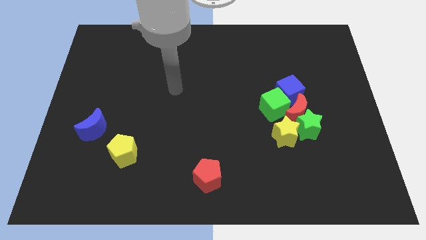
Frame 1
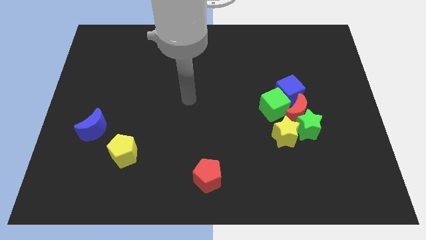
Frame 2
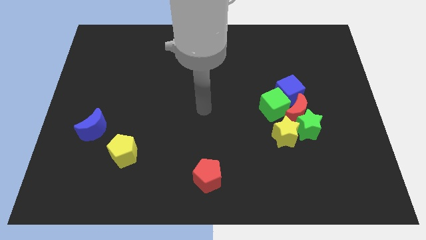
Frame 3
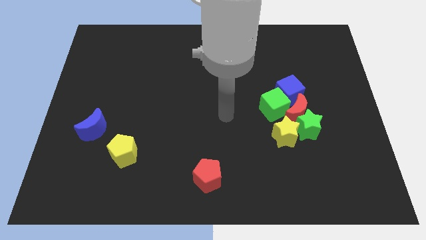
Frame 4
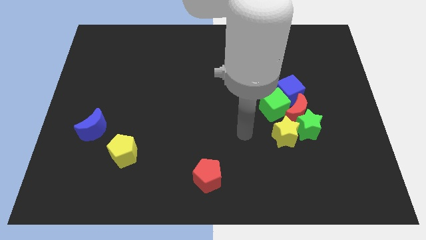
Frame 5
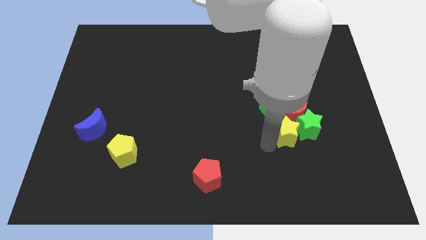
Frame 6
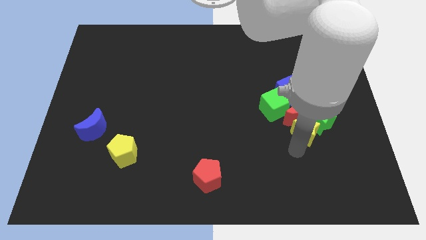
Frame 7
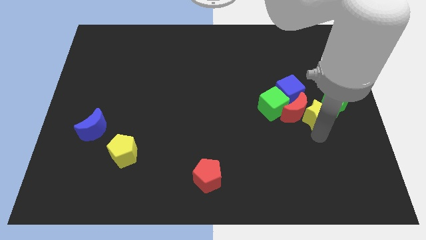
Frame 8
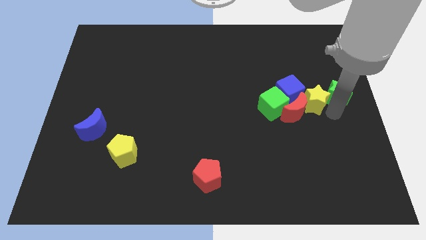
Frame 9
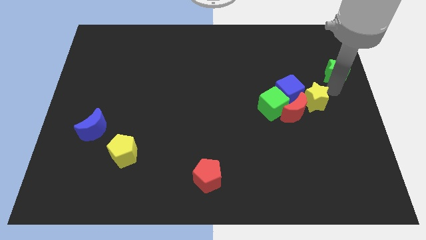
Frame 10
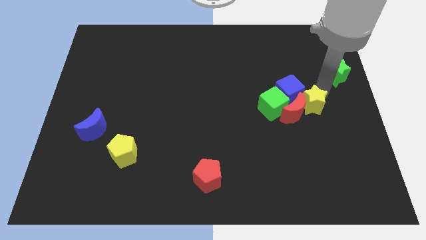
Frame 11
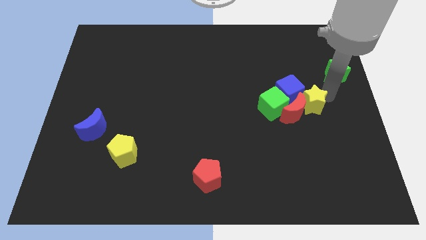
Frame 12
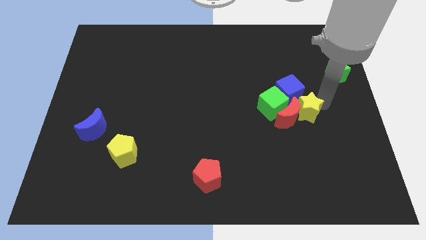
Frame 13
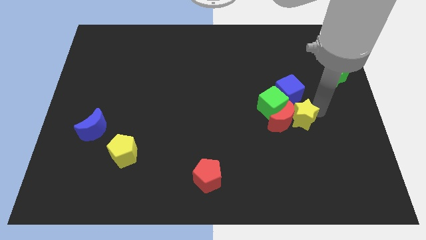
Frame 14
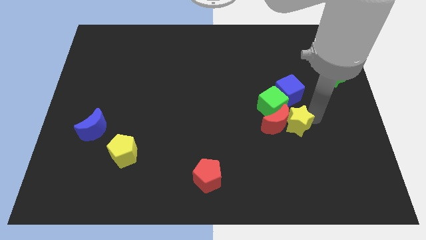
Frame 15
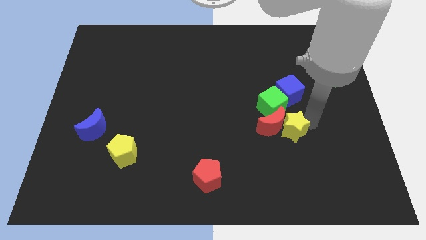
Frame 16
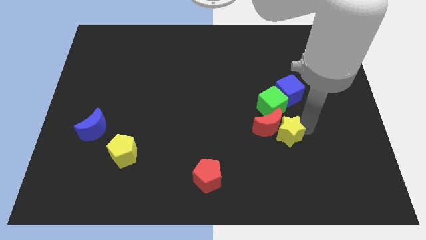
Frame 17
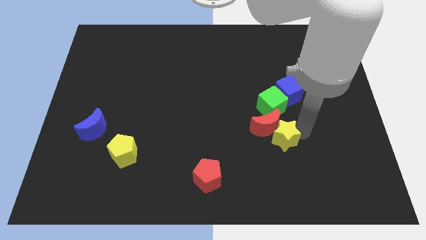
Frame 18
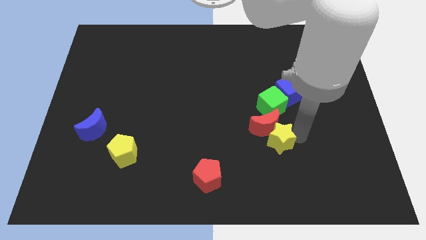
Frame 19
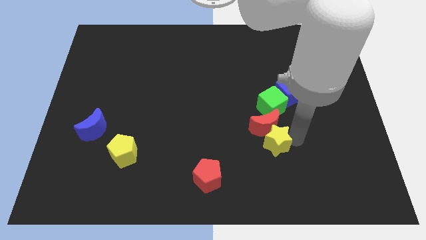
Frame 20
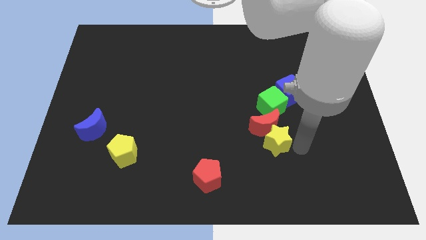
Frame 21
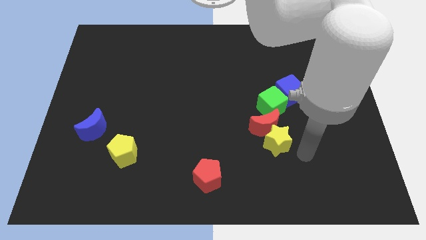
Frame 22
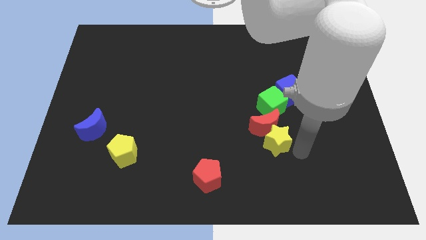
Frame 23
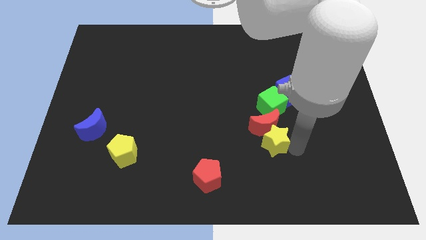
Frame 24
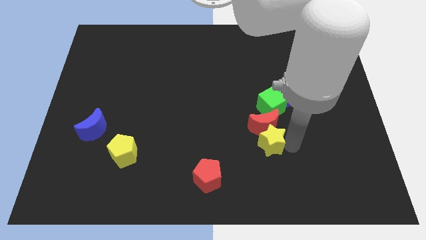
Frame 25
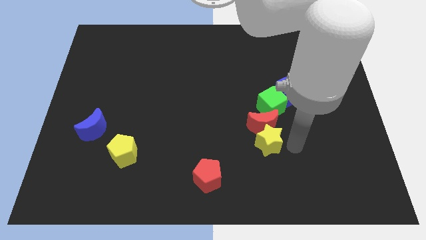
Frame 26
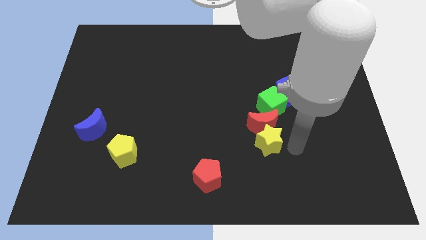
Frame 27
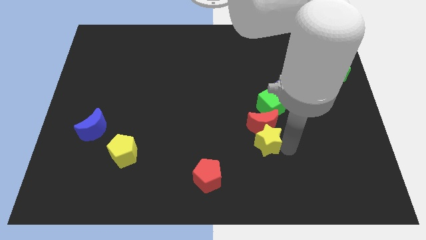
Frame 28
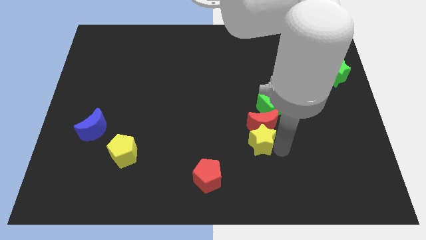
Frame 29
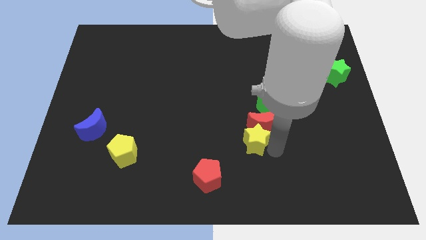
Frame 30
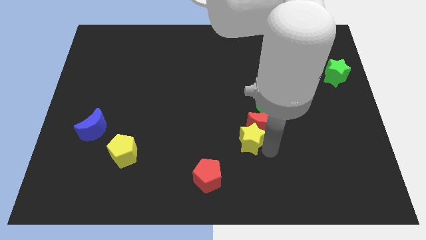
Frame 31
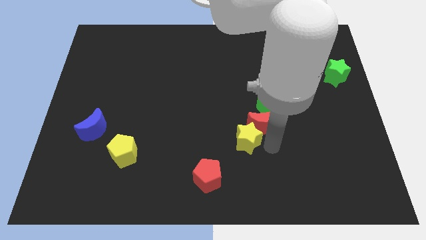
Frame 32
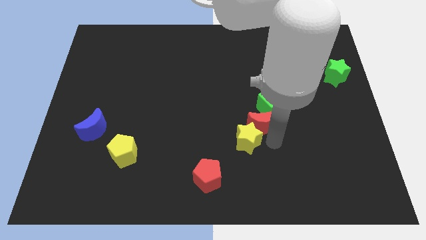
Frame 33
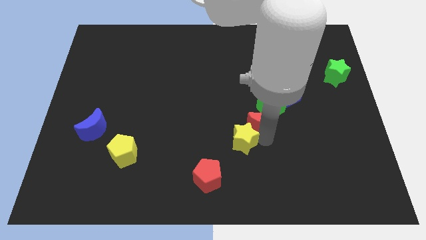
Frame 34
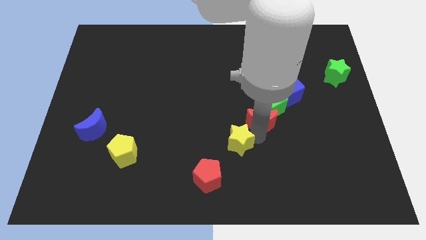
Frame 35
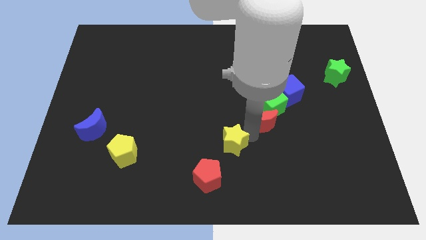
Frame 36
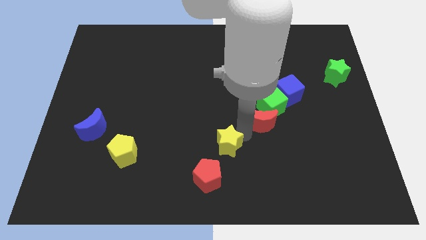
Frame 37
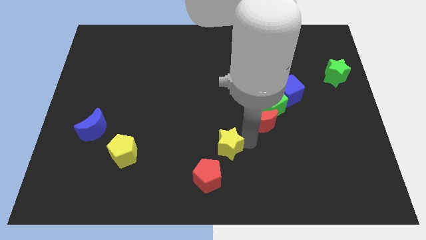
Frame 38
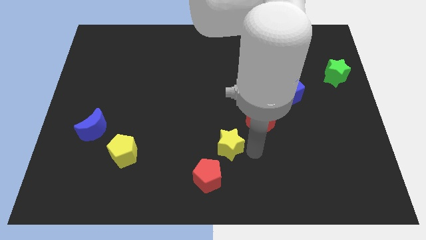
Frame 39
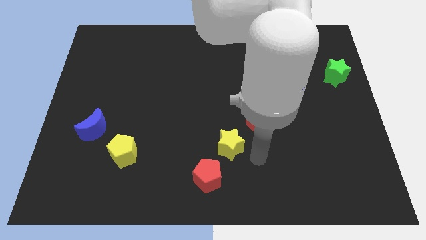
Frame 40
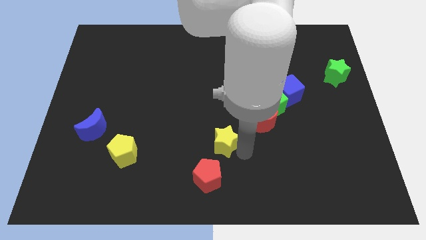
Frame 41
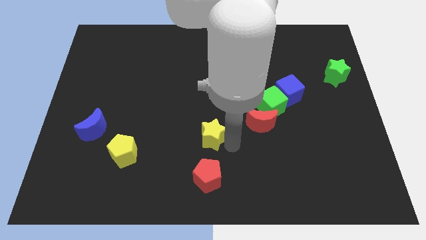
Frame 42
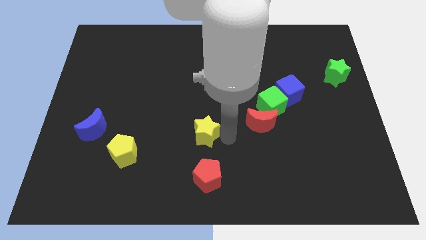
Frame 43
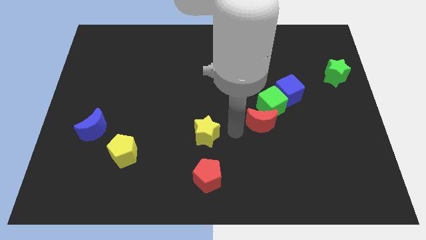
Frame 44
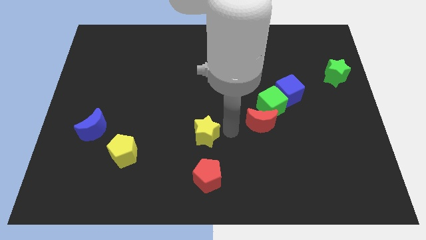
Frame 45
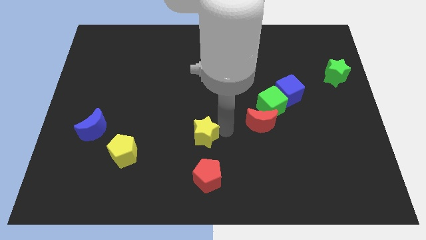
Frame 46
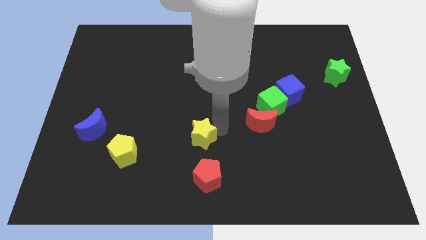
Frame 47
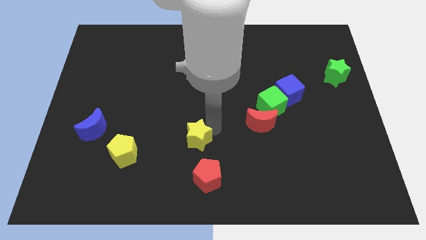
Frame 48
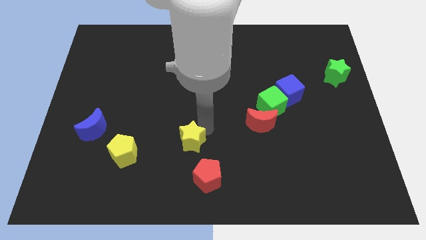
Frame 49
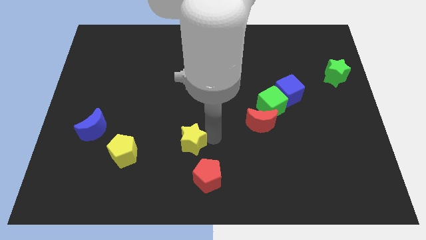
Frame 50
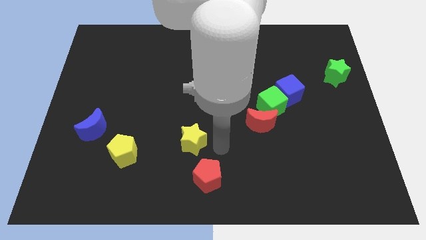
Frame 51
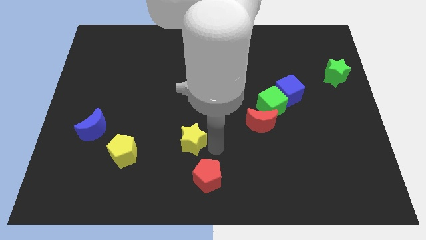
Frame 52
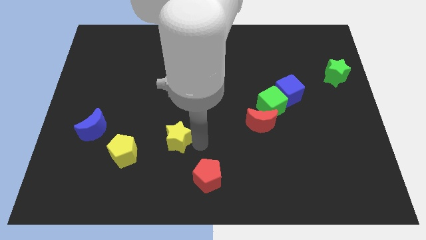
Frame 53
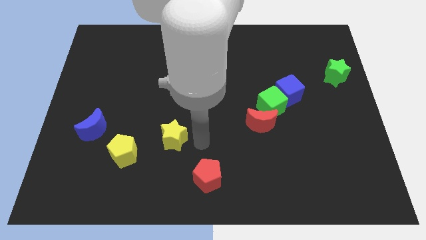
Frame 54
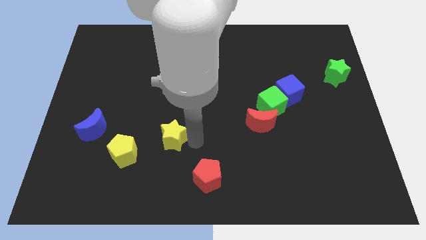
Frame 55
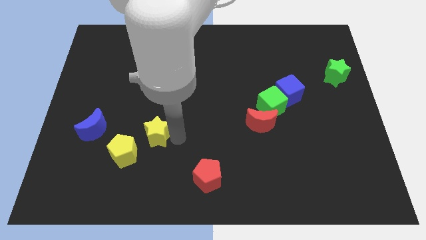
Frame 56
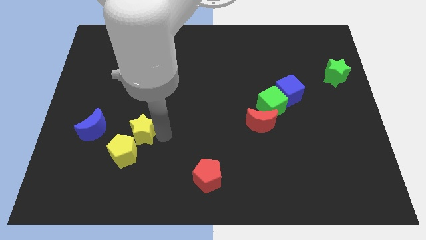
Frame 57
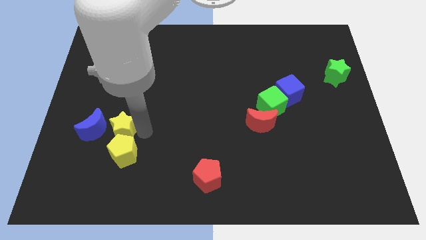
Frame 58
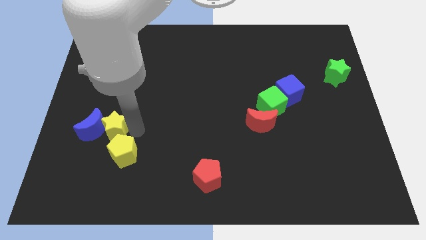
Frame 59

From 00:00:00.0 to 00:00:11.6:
slide the yellow star towards the blue moon

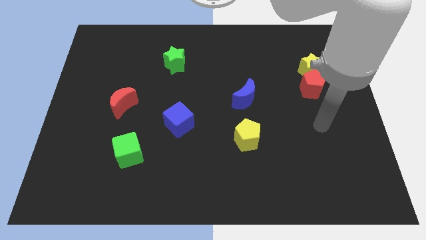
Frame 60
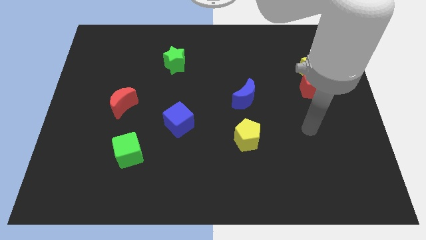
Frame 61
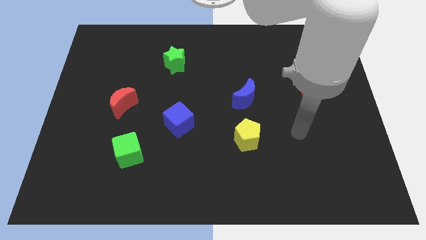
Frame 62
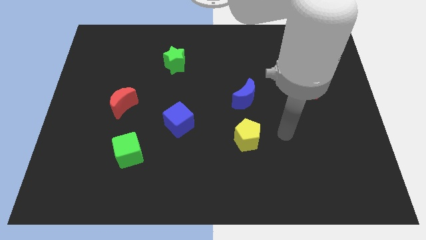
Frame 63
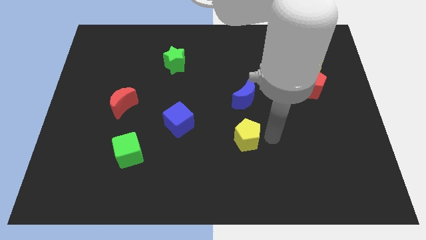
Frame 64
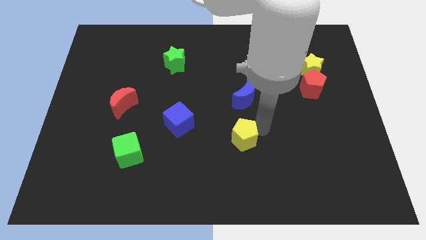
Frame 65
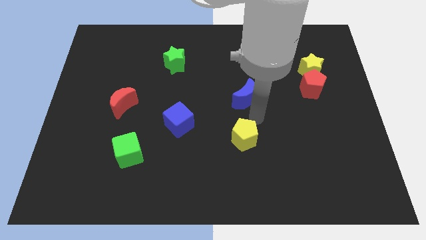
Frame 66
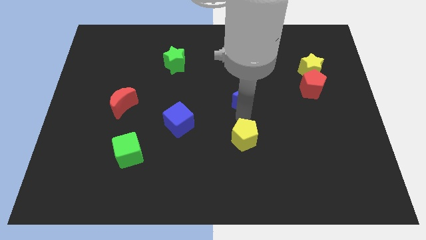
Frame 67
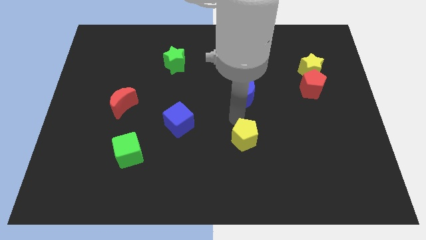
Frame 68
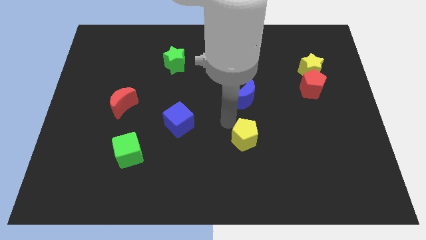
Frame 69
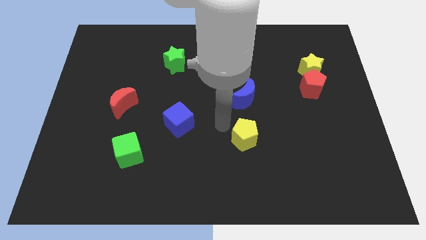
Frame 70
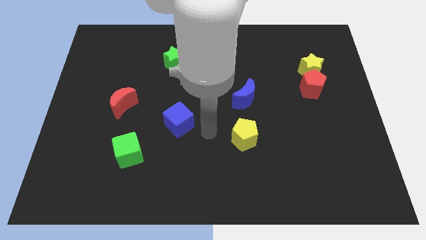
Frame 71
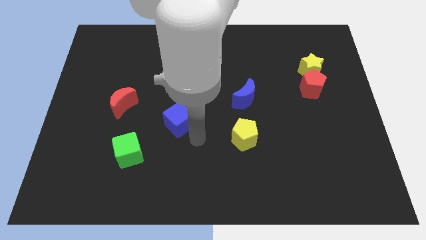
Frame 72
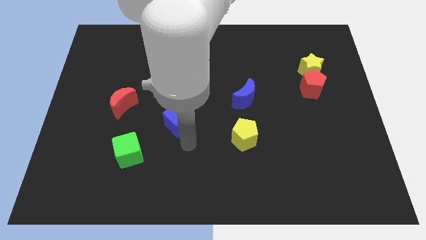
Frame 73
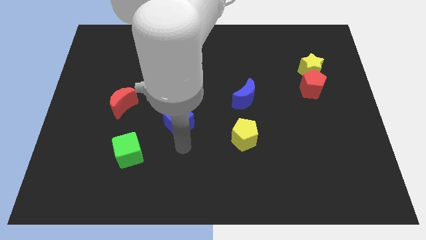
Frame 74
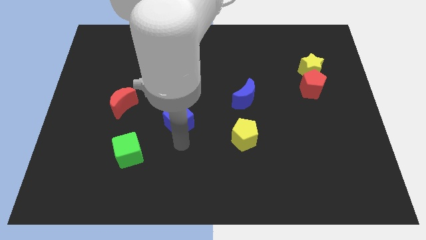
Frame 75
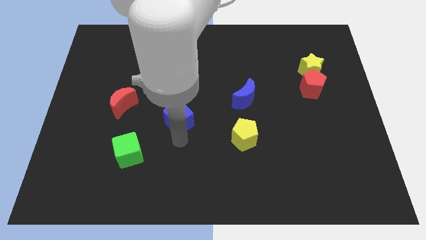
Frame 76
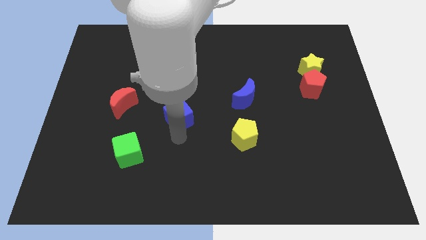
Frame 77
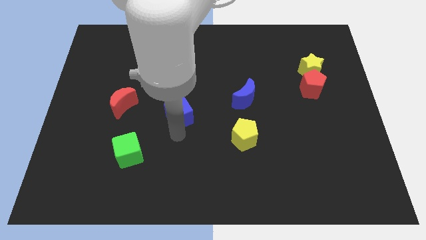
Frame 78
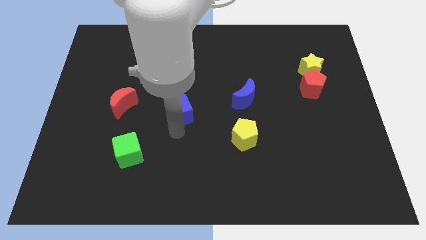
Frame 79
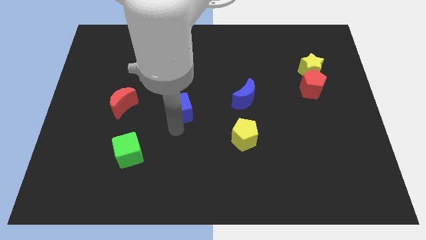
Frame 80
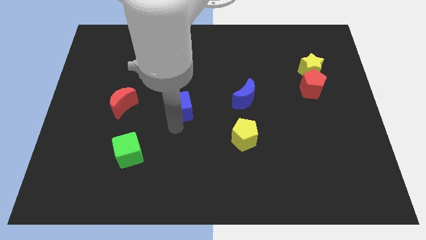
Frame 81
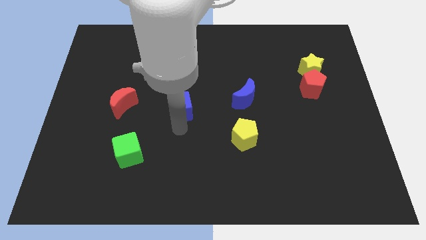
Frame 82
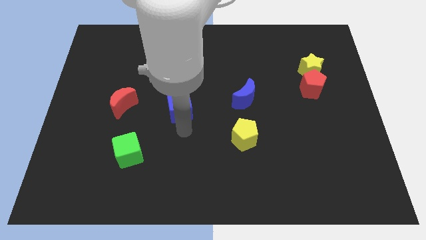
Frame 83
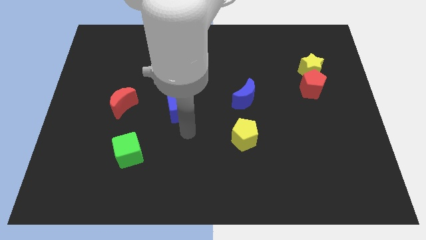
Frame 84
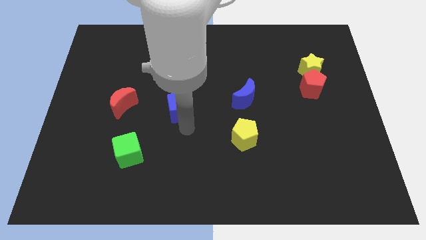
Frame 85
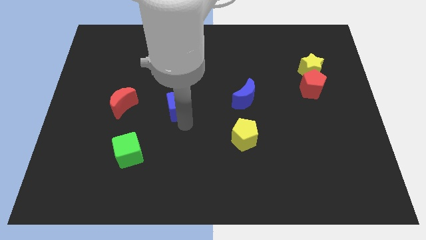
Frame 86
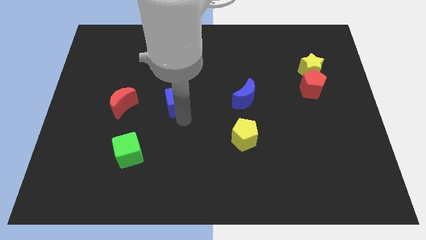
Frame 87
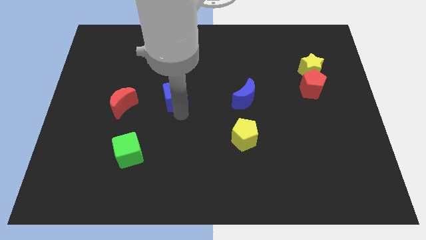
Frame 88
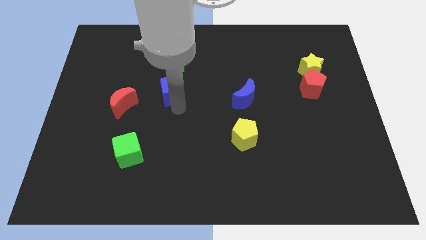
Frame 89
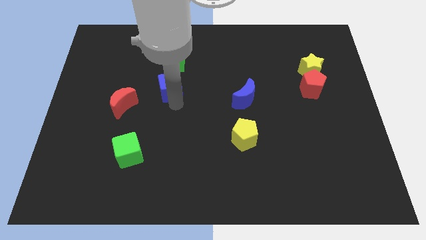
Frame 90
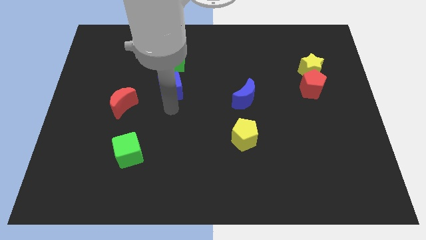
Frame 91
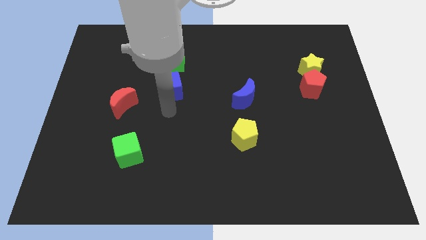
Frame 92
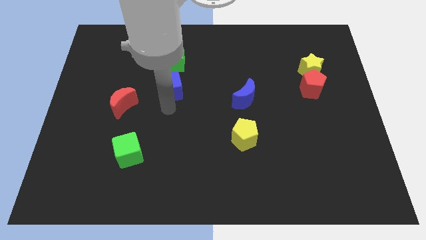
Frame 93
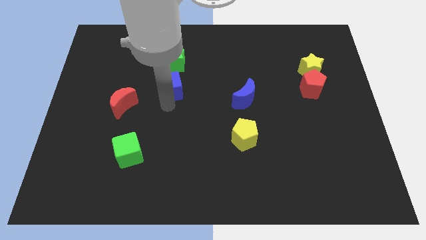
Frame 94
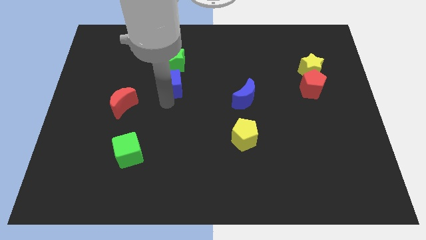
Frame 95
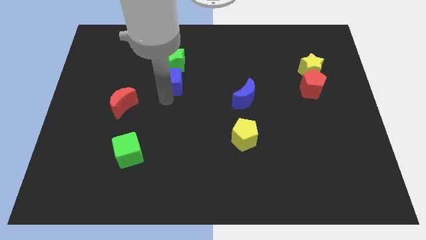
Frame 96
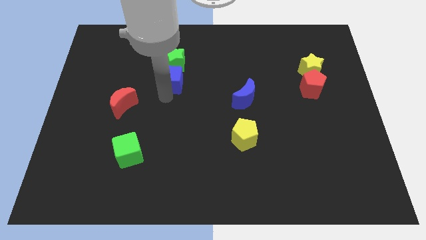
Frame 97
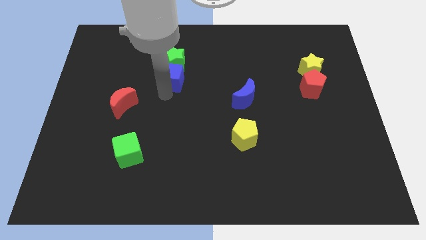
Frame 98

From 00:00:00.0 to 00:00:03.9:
put the blue cube to the green star
